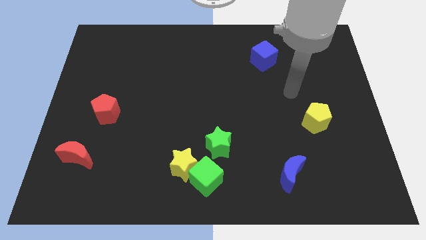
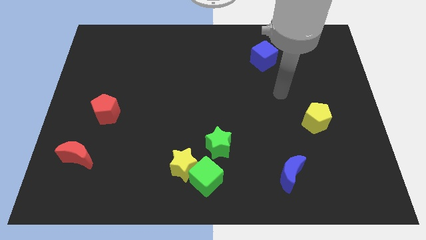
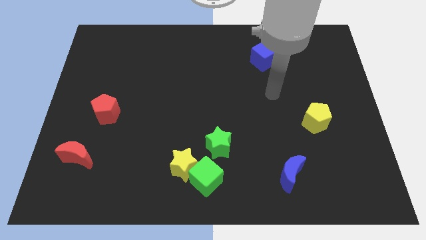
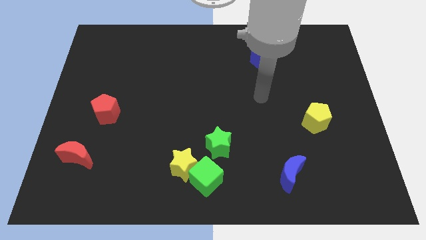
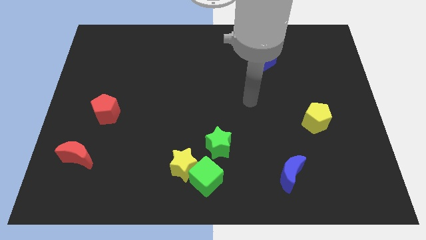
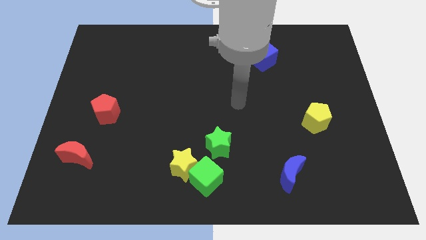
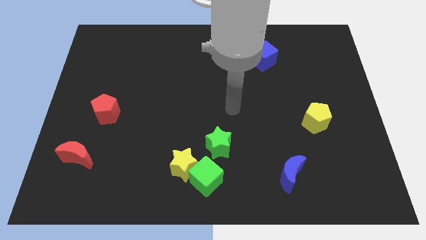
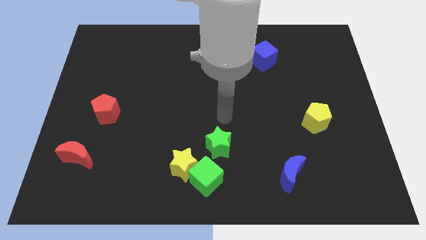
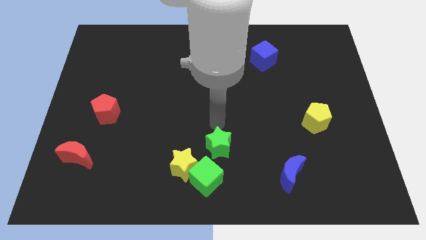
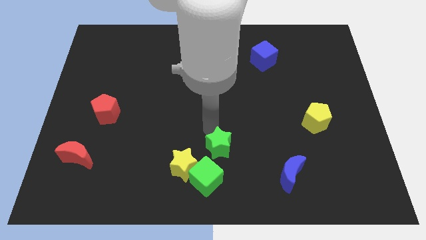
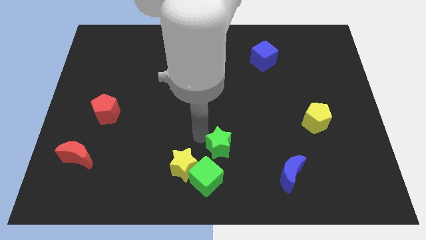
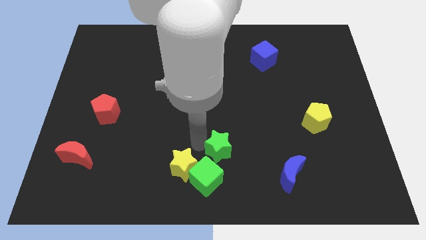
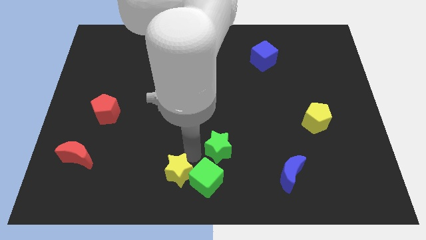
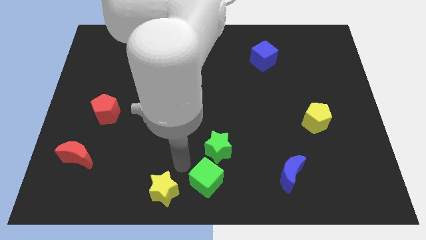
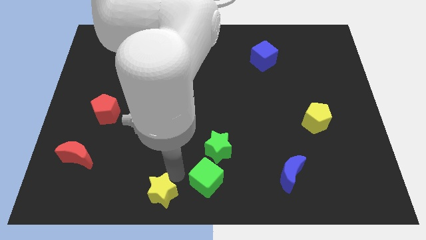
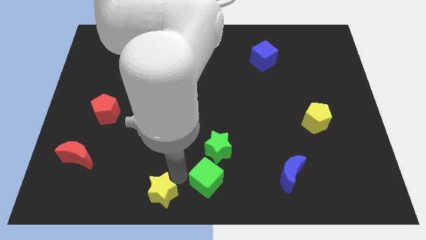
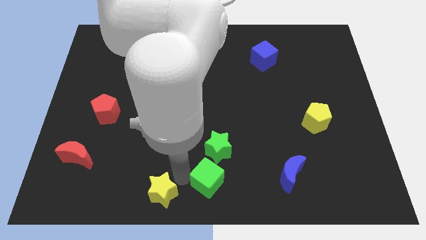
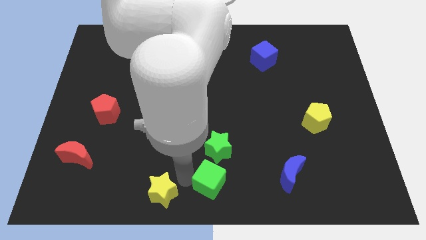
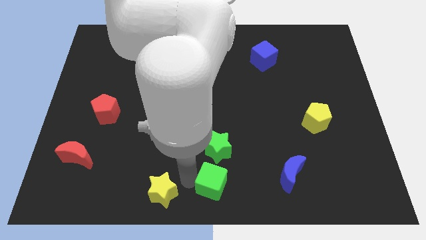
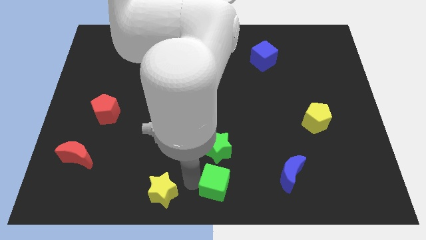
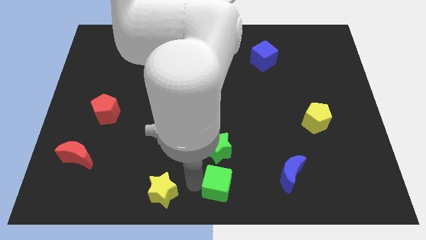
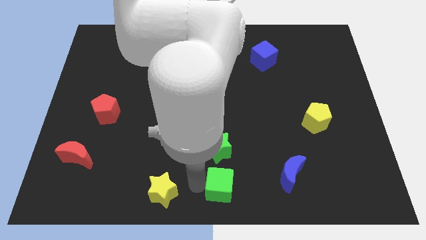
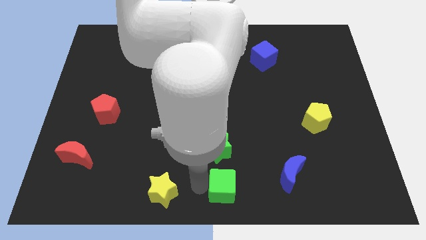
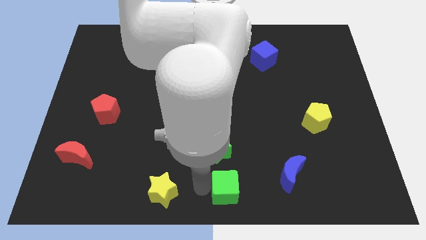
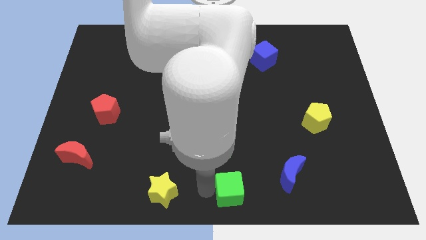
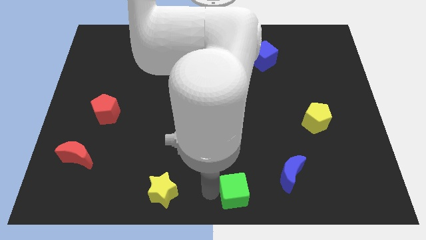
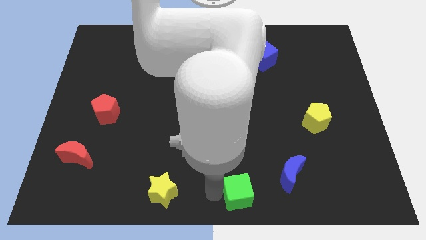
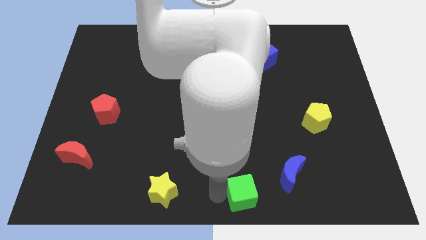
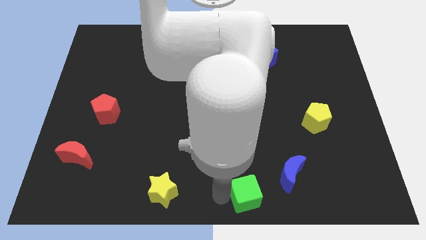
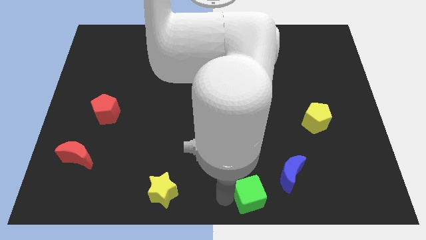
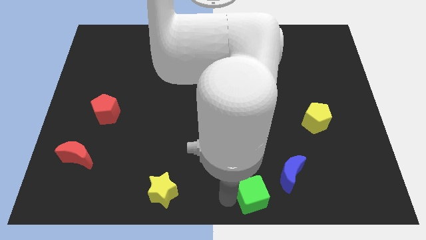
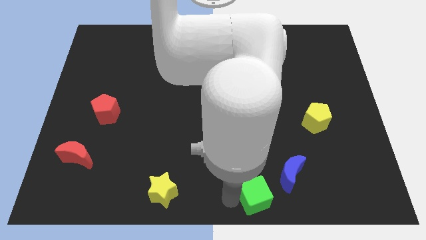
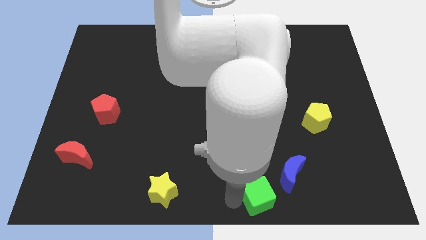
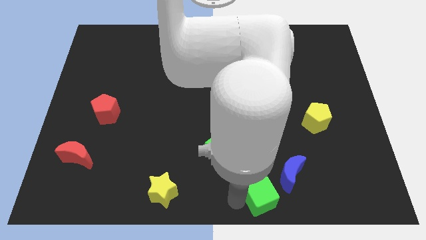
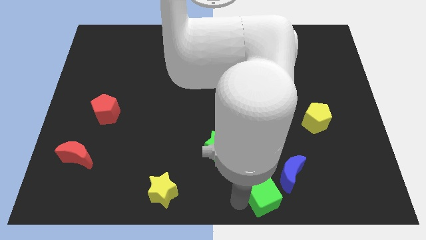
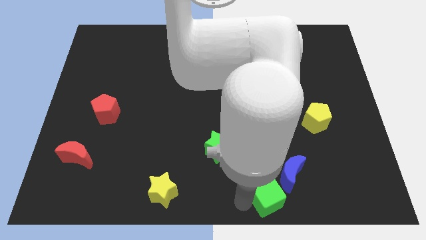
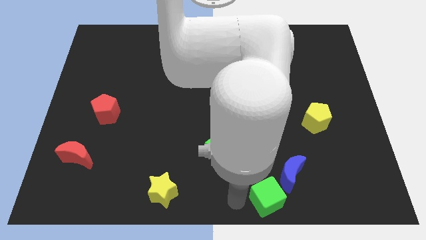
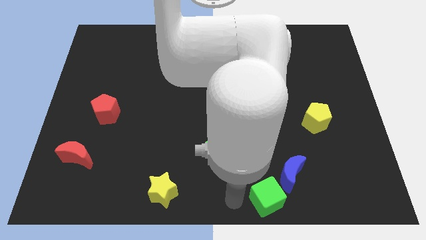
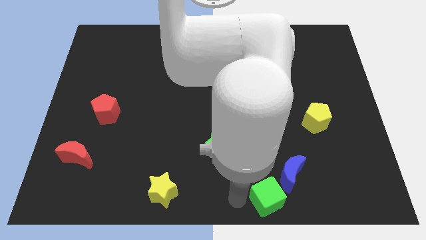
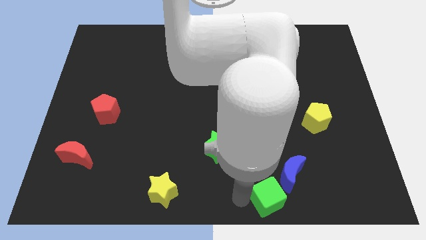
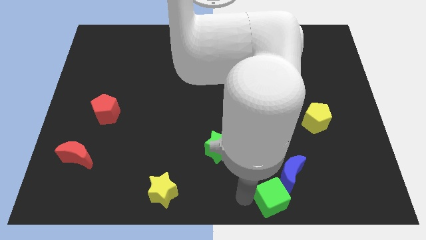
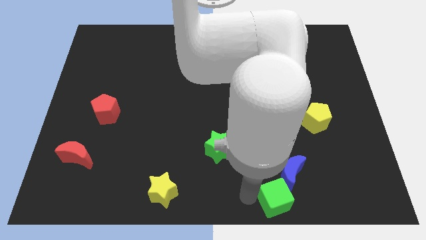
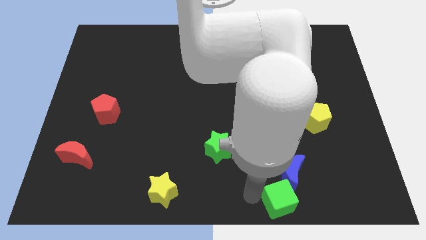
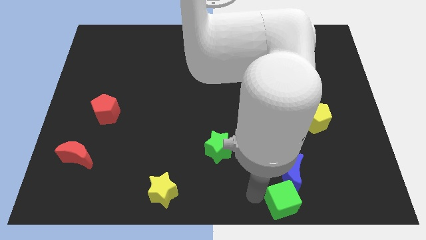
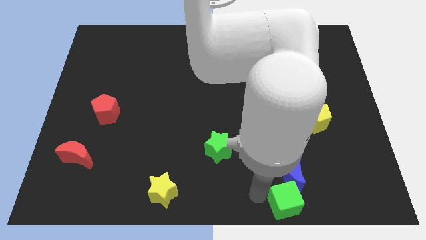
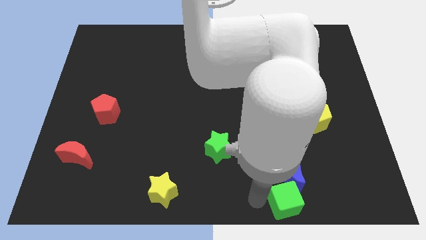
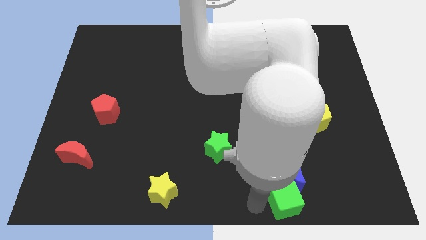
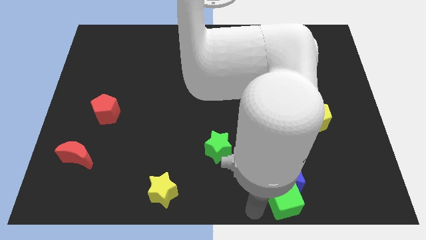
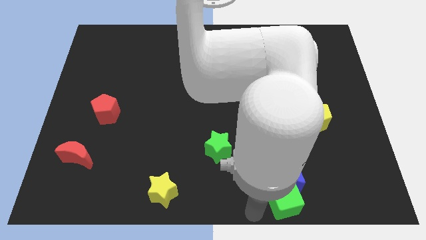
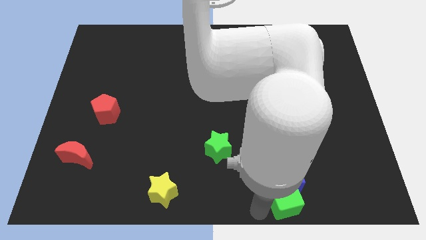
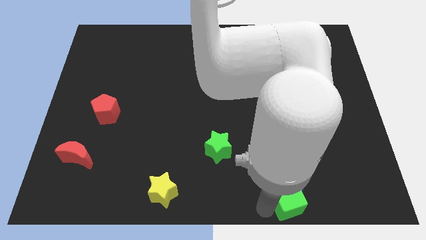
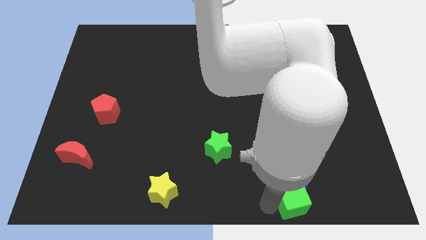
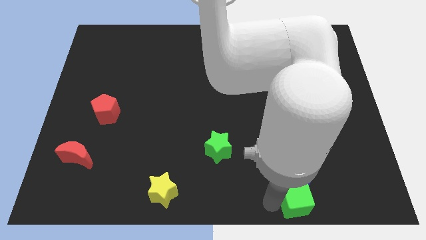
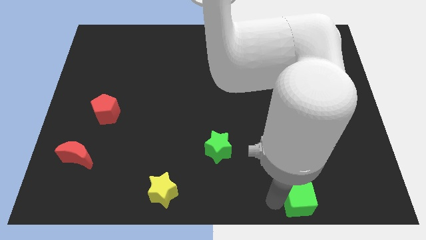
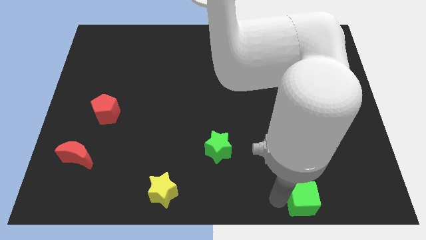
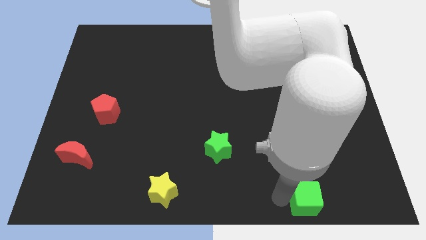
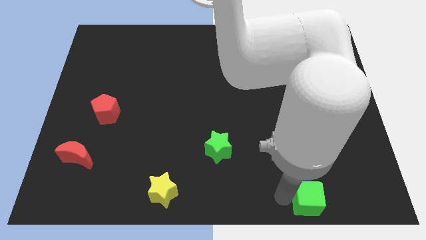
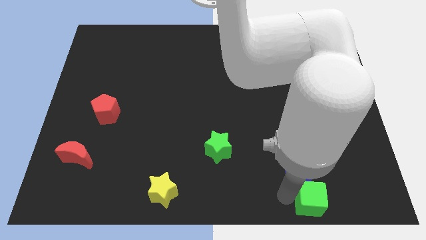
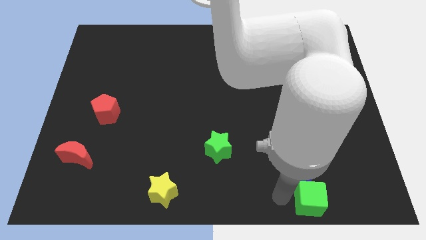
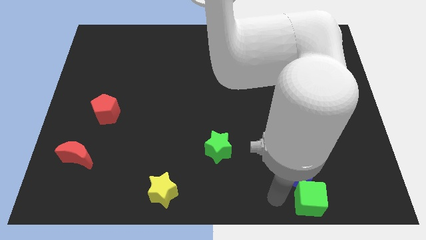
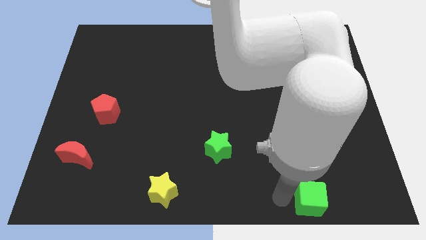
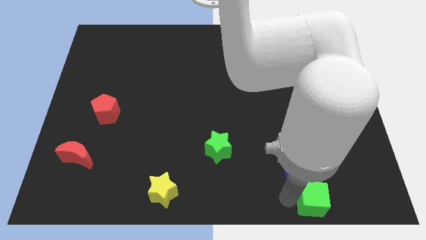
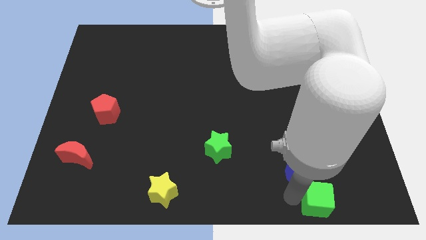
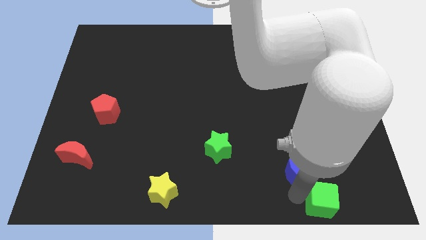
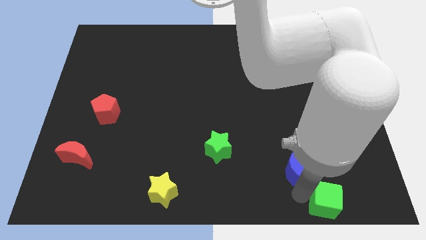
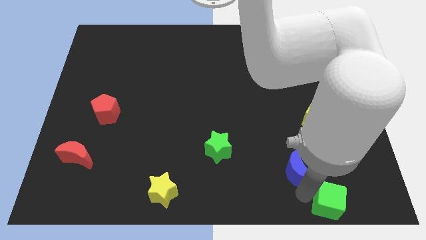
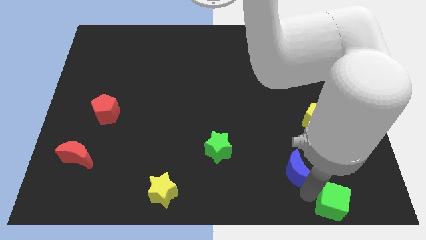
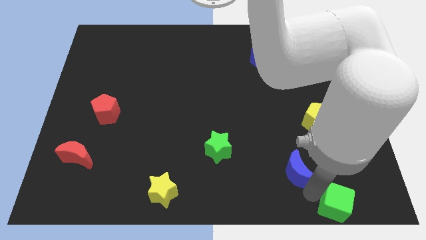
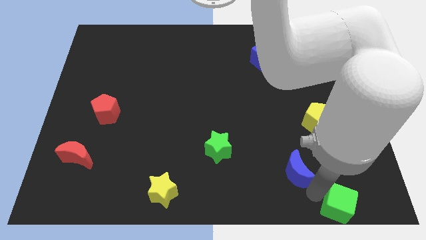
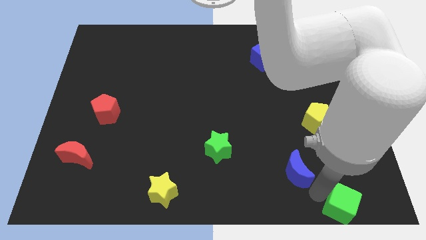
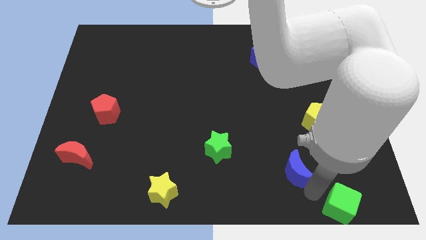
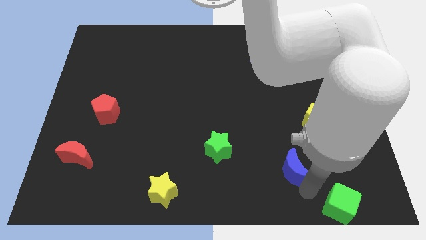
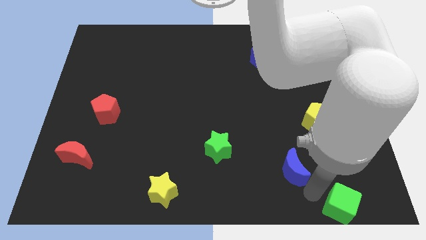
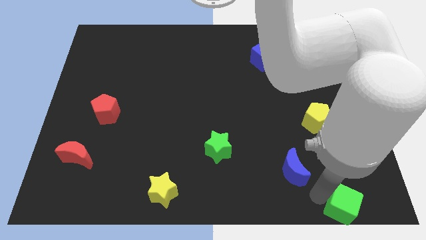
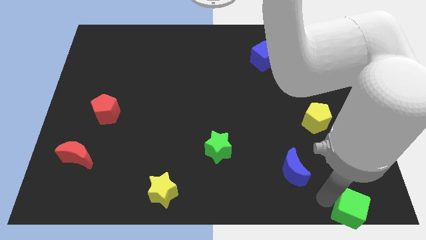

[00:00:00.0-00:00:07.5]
put the green cube to the bottom right corner

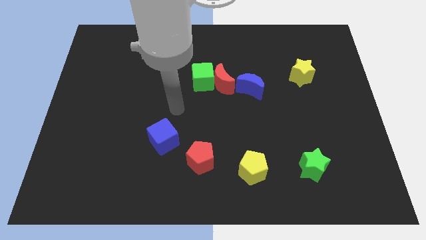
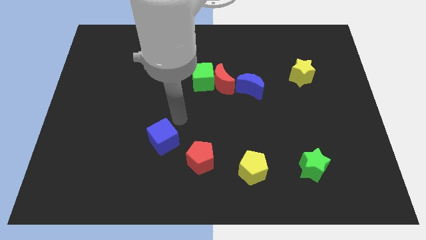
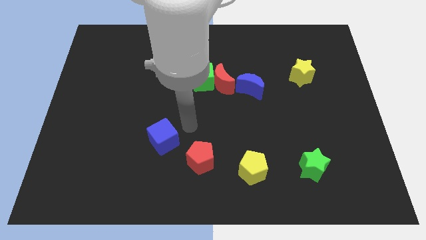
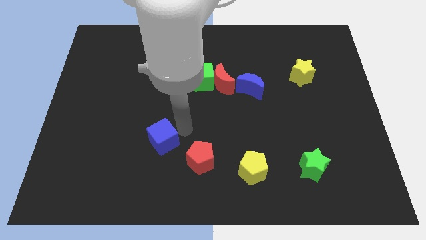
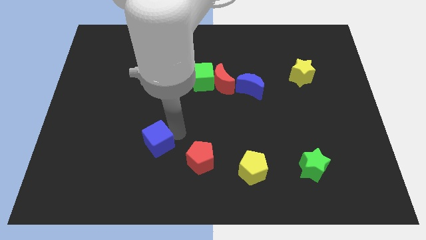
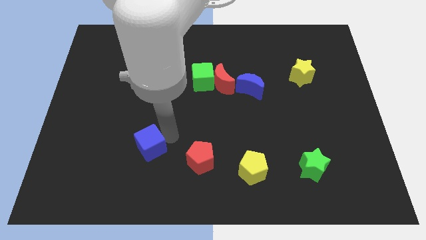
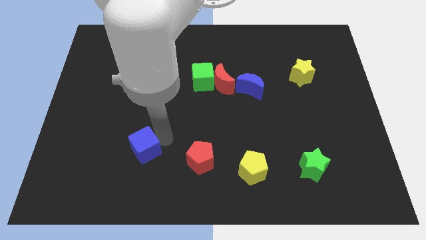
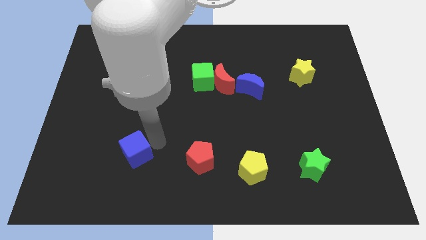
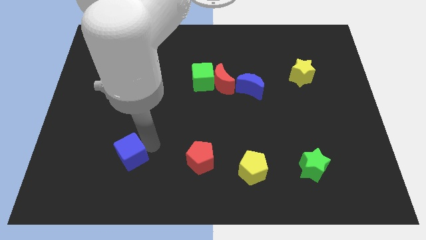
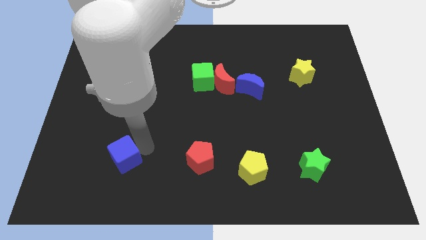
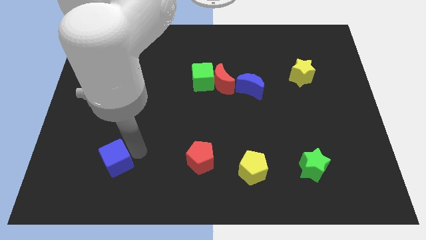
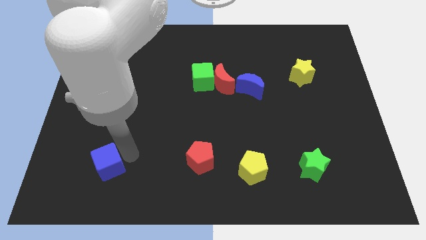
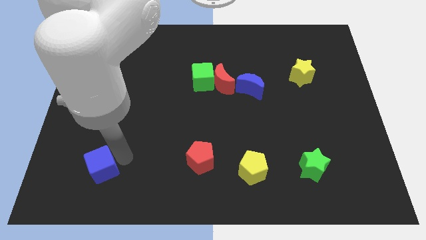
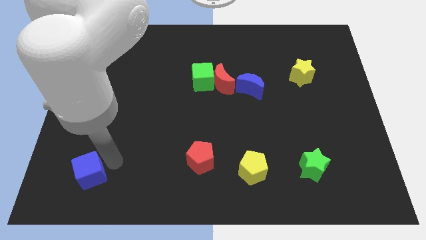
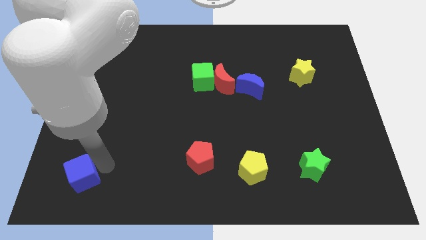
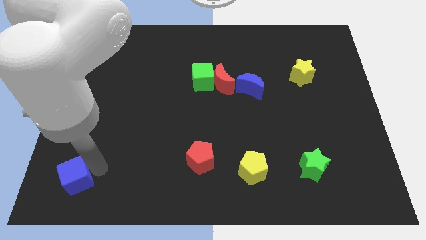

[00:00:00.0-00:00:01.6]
push the blue cube to the lower left corner
